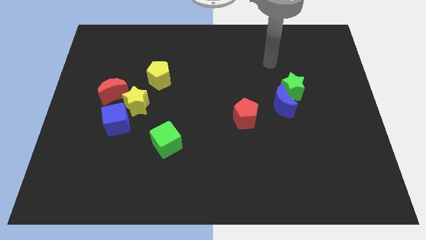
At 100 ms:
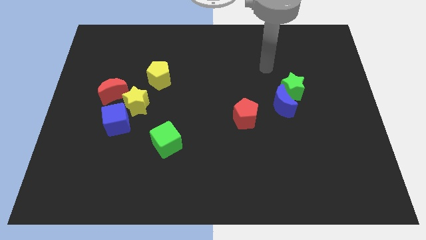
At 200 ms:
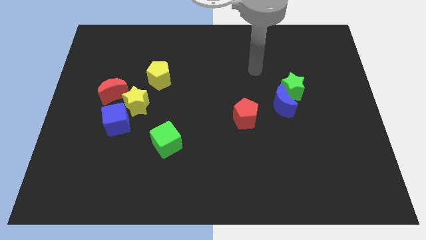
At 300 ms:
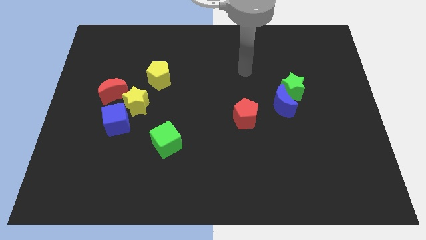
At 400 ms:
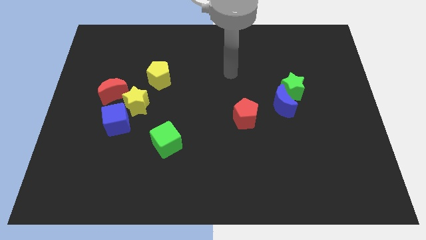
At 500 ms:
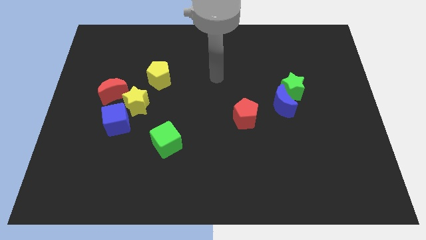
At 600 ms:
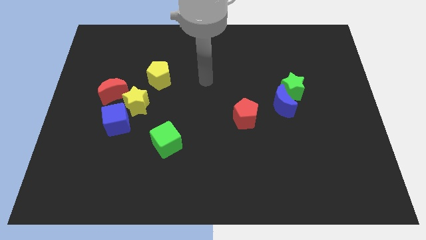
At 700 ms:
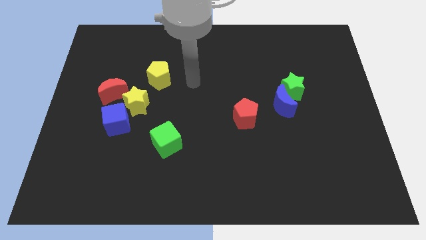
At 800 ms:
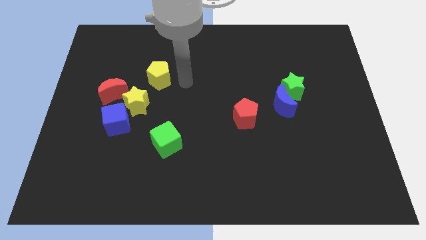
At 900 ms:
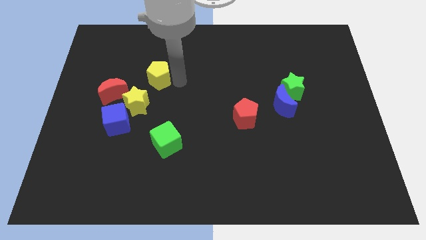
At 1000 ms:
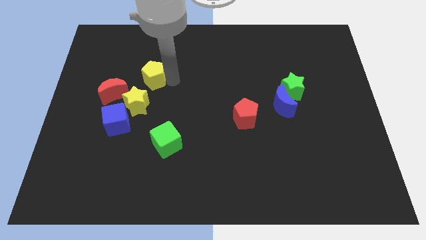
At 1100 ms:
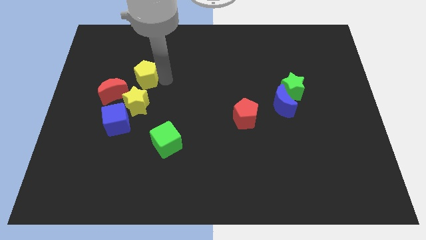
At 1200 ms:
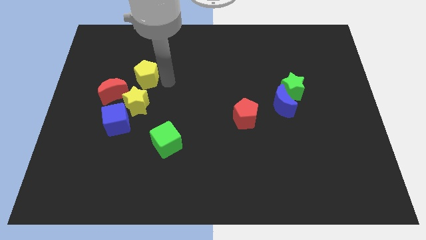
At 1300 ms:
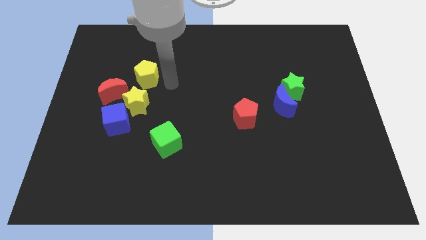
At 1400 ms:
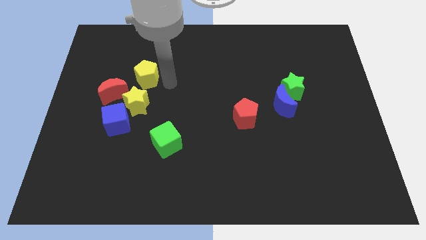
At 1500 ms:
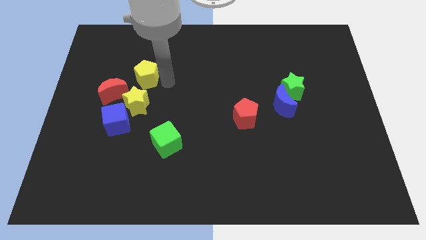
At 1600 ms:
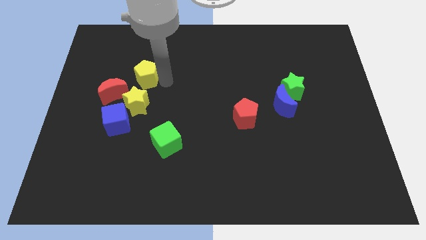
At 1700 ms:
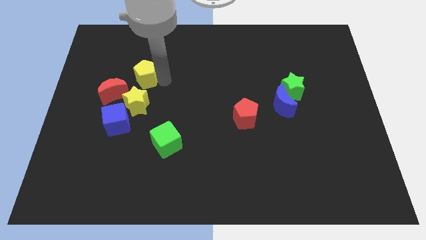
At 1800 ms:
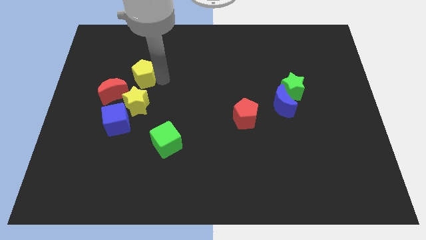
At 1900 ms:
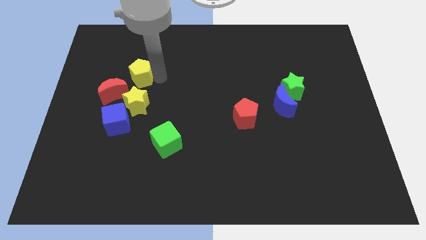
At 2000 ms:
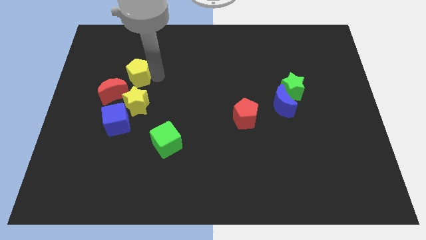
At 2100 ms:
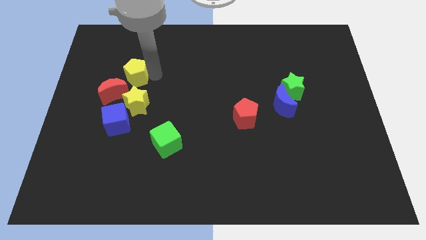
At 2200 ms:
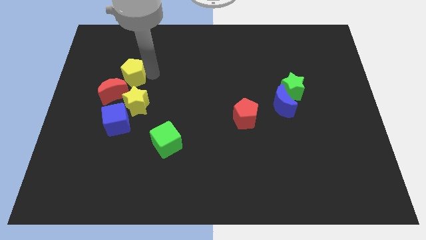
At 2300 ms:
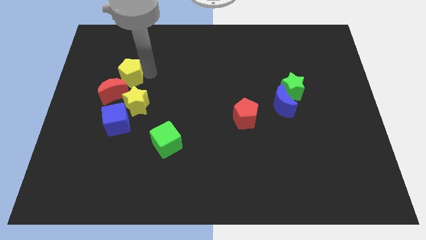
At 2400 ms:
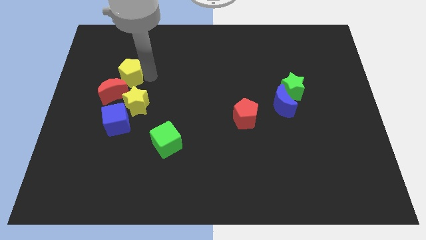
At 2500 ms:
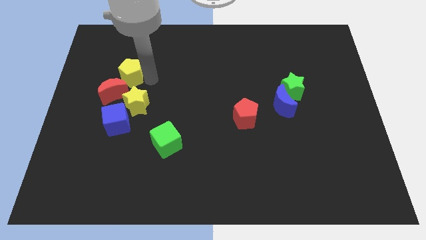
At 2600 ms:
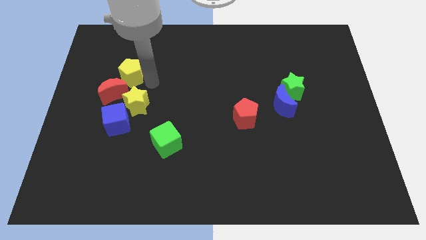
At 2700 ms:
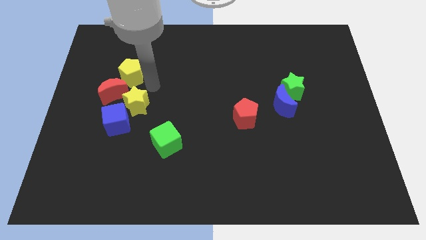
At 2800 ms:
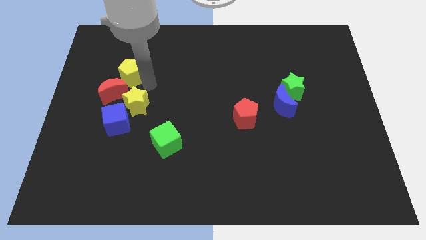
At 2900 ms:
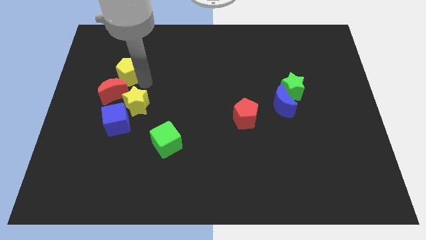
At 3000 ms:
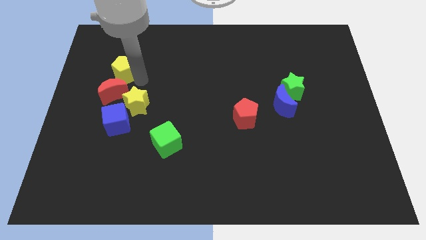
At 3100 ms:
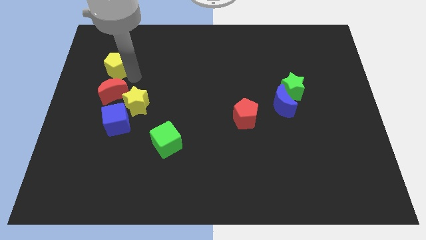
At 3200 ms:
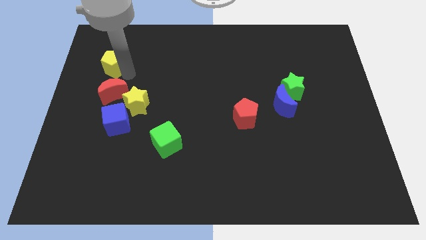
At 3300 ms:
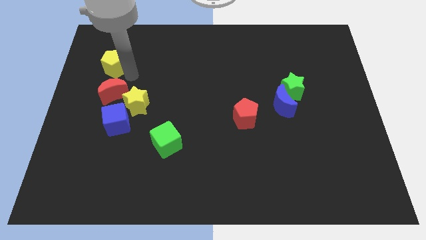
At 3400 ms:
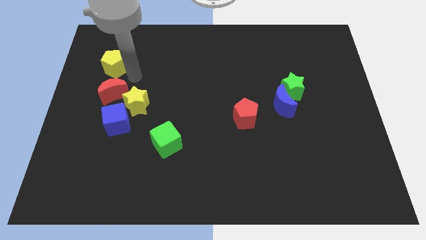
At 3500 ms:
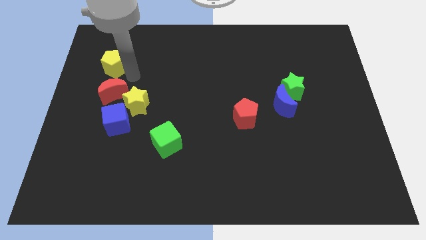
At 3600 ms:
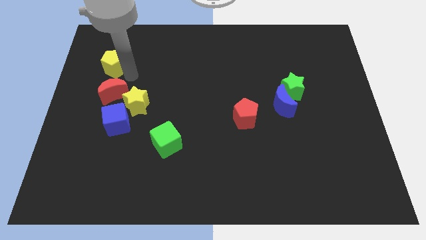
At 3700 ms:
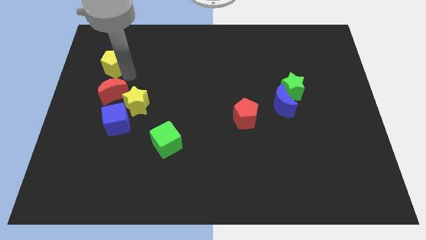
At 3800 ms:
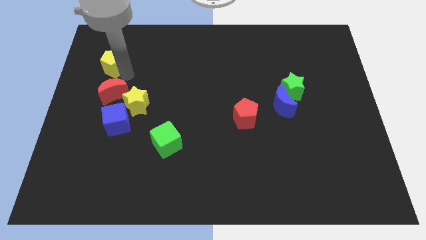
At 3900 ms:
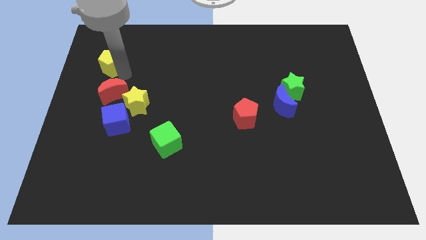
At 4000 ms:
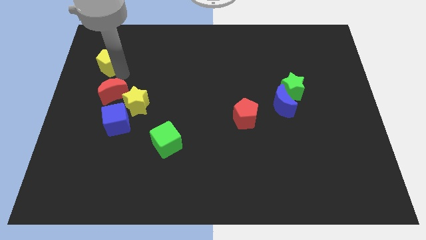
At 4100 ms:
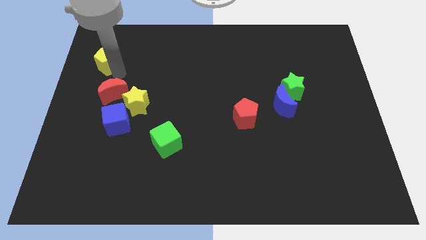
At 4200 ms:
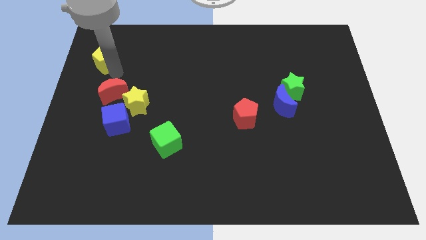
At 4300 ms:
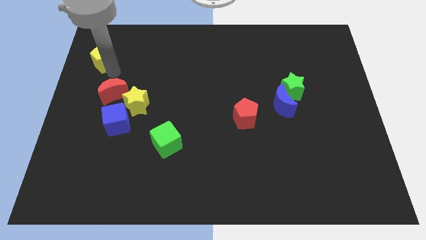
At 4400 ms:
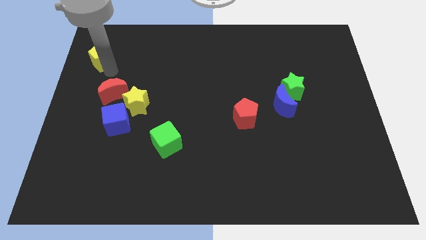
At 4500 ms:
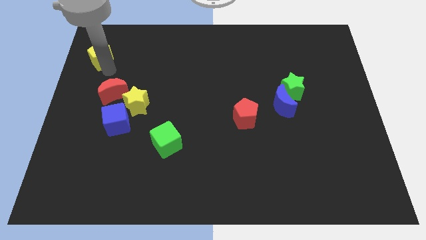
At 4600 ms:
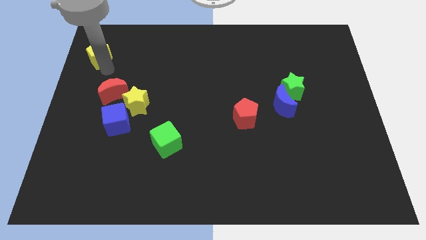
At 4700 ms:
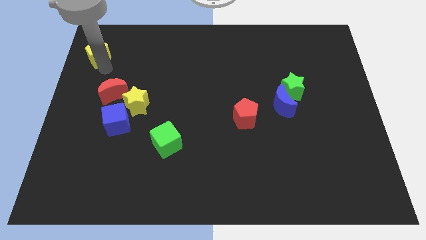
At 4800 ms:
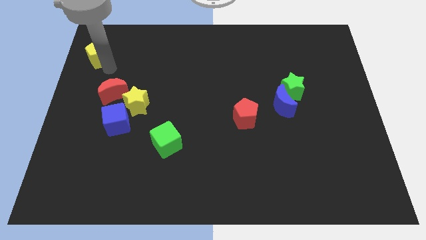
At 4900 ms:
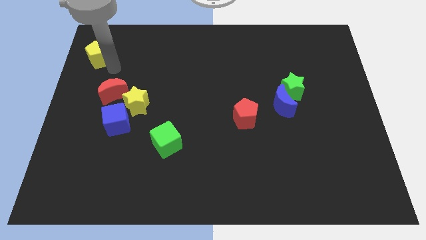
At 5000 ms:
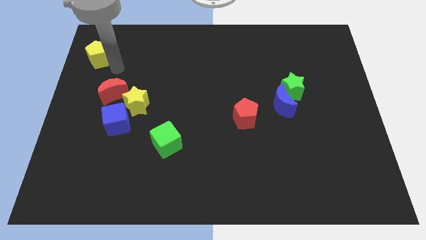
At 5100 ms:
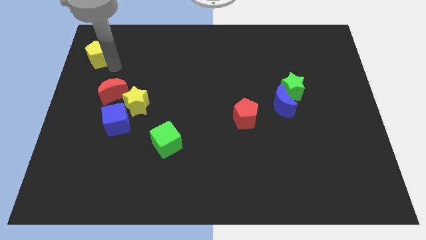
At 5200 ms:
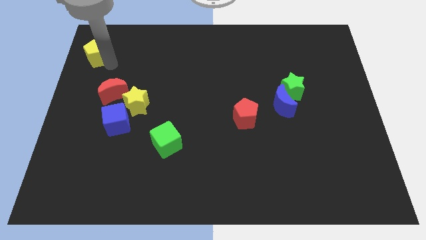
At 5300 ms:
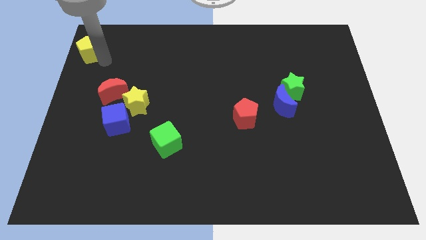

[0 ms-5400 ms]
move the yellow pentagon to the upper left corner

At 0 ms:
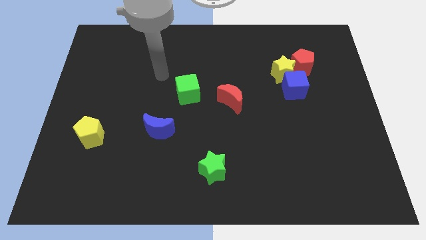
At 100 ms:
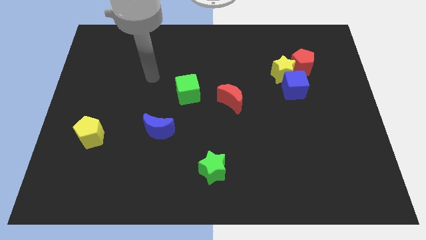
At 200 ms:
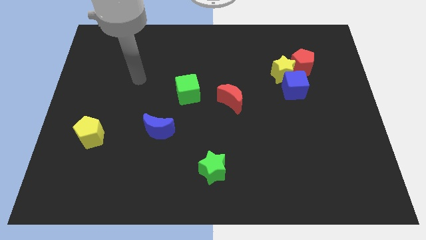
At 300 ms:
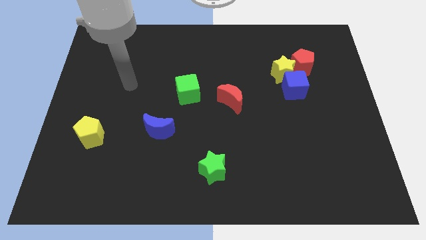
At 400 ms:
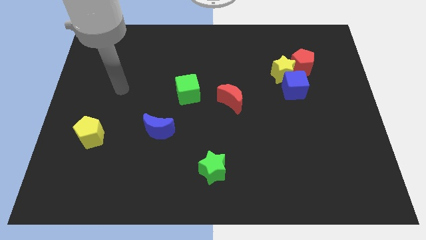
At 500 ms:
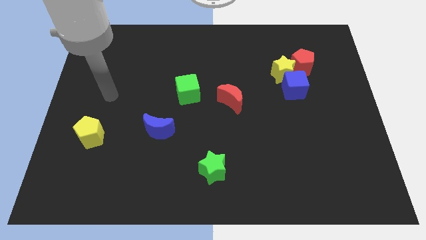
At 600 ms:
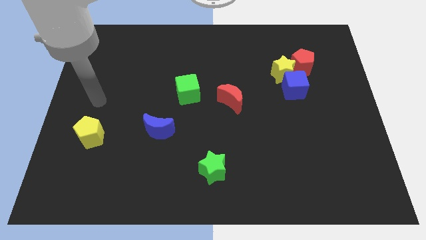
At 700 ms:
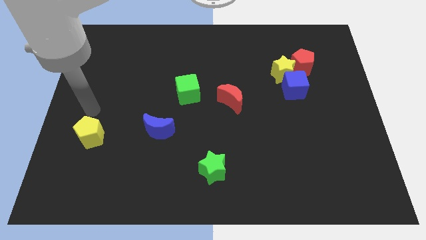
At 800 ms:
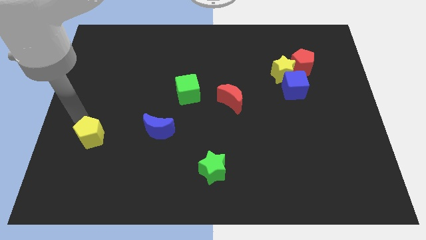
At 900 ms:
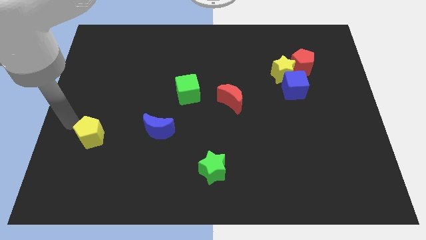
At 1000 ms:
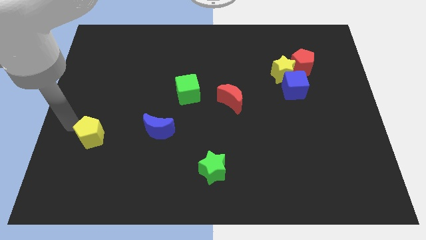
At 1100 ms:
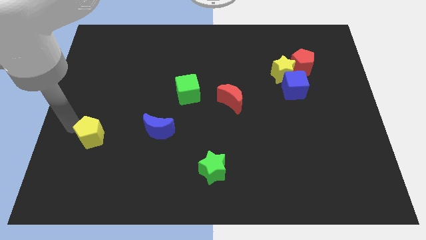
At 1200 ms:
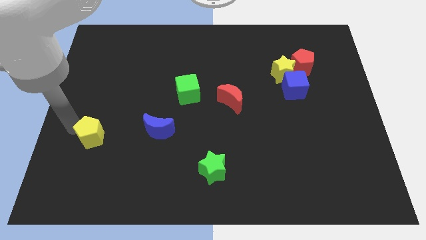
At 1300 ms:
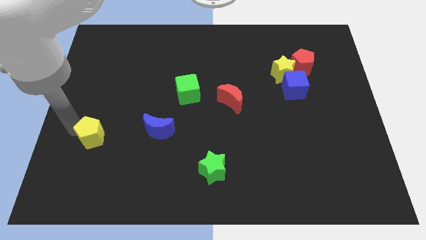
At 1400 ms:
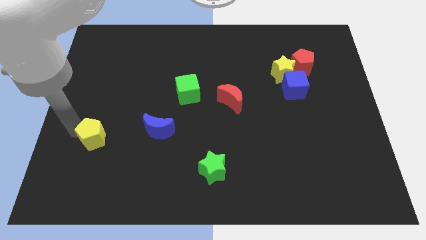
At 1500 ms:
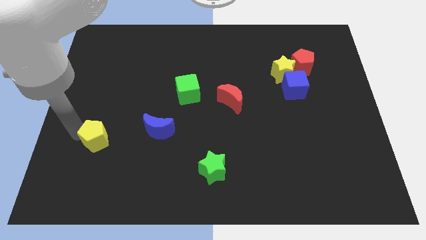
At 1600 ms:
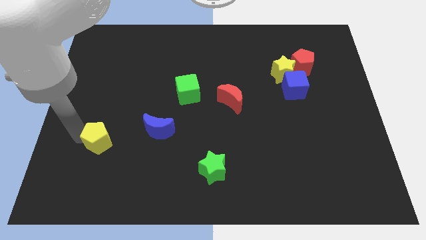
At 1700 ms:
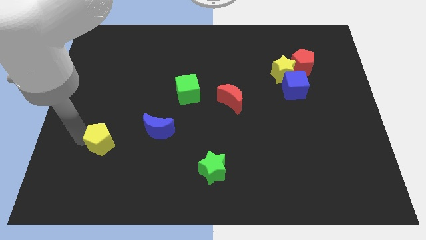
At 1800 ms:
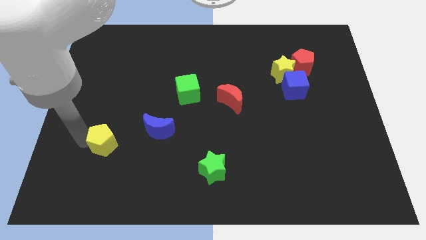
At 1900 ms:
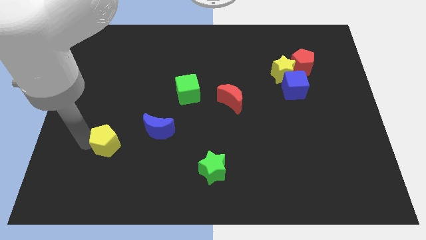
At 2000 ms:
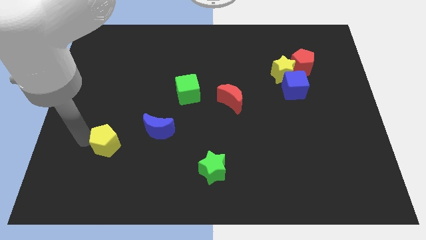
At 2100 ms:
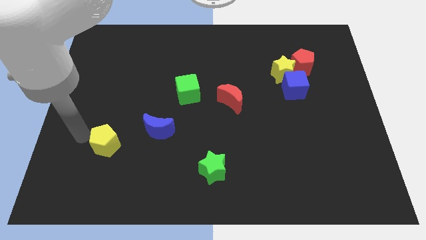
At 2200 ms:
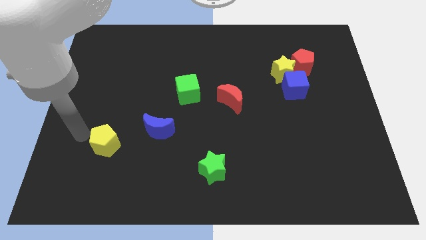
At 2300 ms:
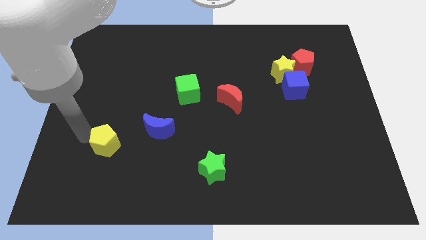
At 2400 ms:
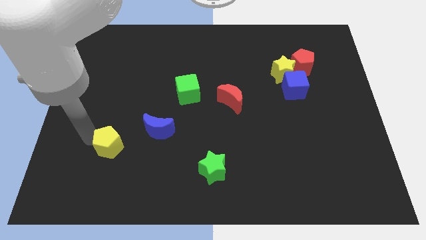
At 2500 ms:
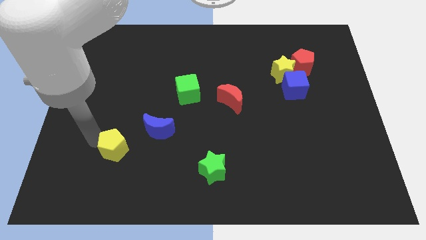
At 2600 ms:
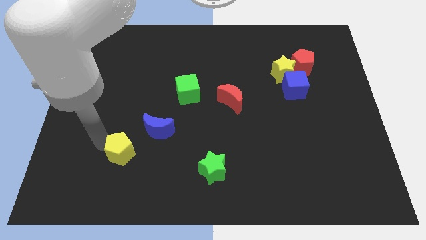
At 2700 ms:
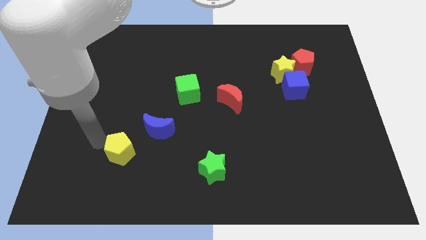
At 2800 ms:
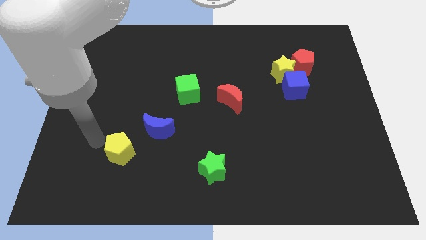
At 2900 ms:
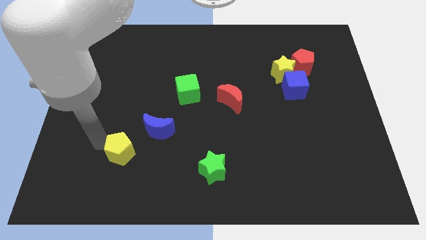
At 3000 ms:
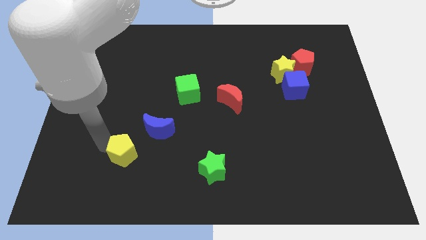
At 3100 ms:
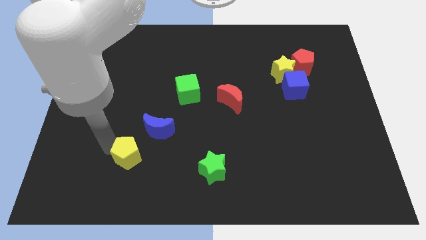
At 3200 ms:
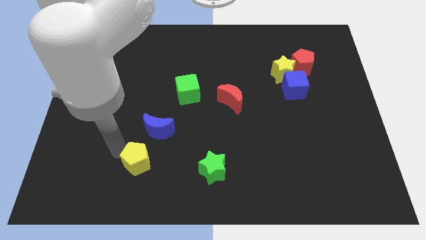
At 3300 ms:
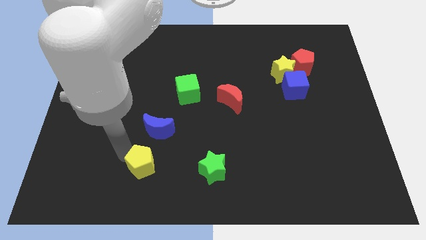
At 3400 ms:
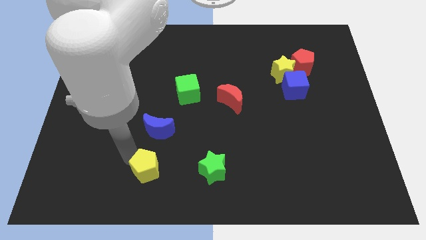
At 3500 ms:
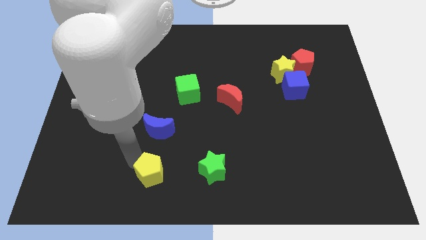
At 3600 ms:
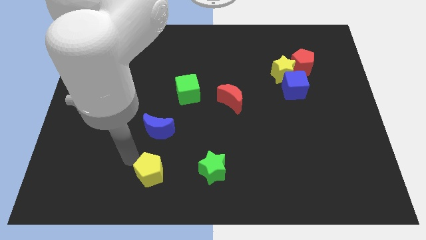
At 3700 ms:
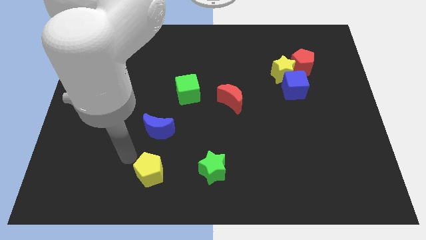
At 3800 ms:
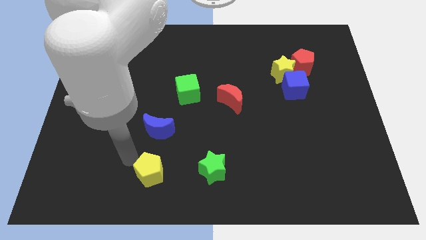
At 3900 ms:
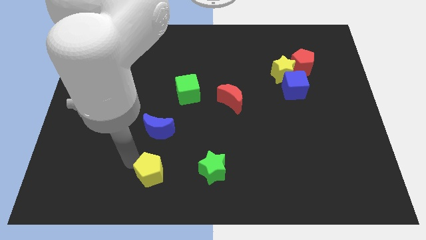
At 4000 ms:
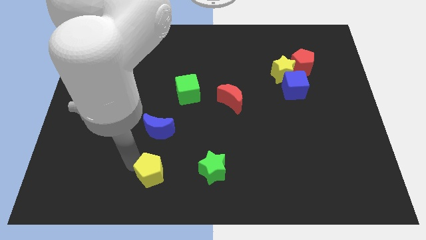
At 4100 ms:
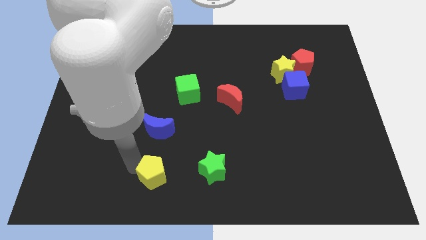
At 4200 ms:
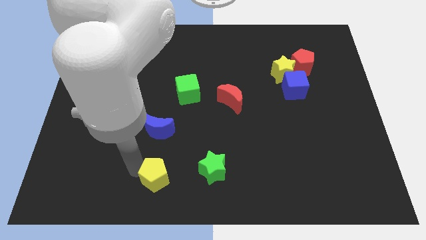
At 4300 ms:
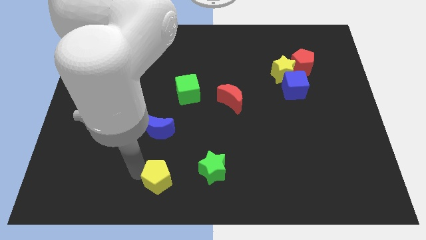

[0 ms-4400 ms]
put the yellow pentagon to the bottom
